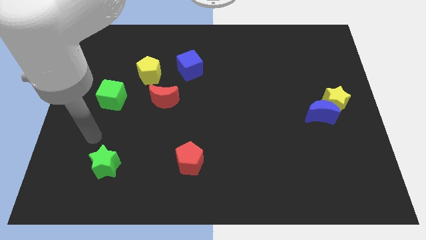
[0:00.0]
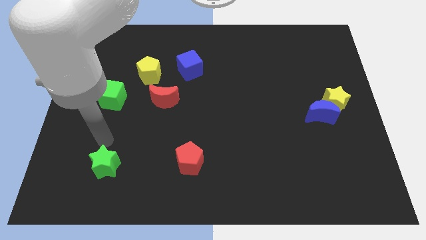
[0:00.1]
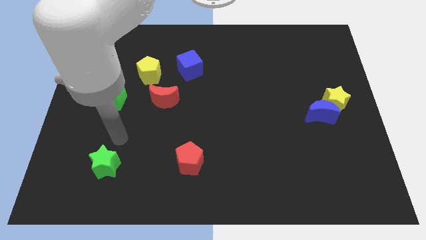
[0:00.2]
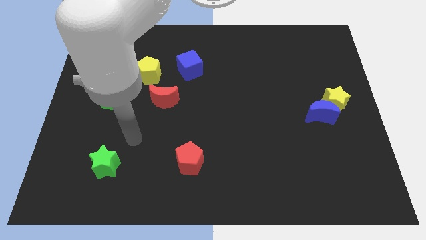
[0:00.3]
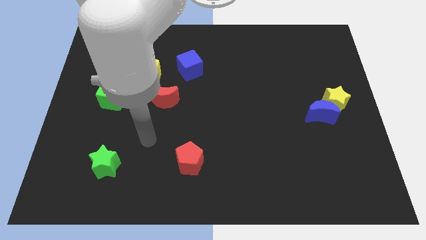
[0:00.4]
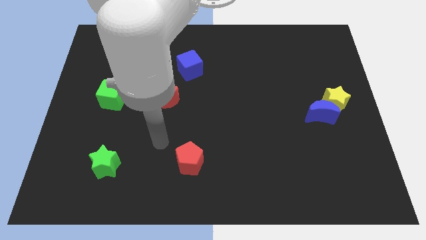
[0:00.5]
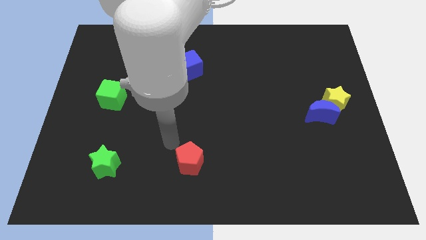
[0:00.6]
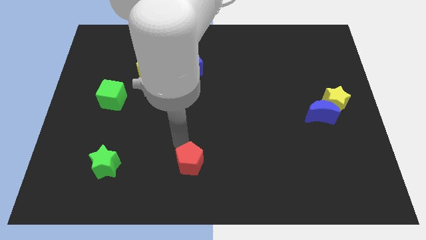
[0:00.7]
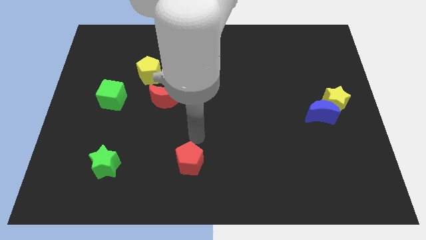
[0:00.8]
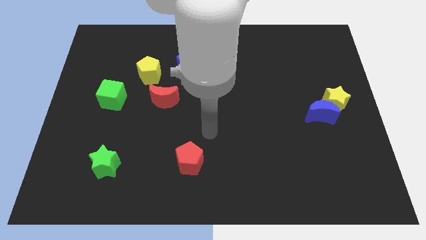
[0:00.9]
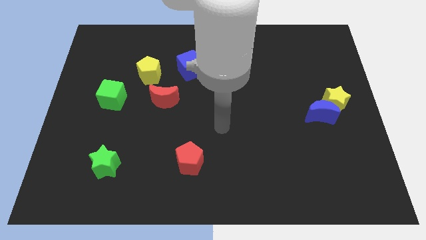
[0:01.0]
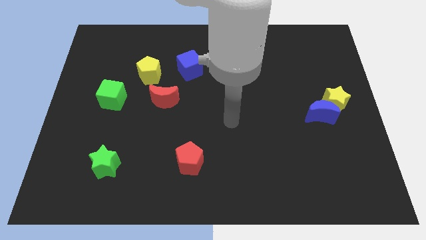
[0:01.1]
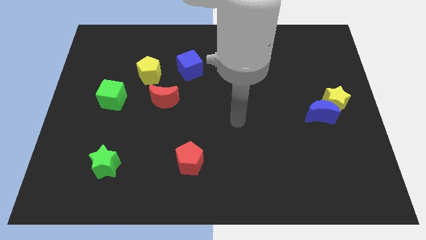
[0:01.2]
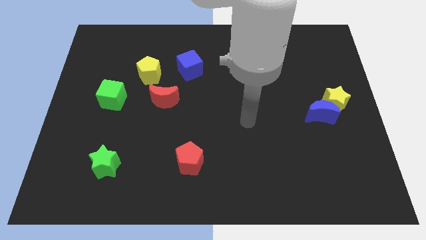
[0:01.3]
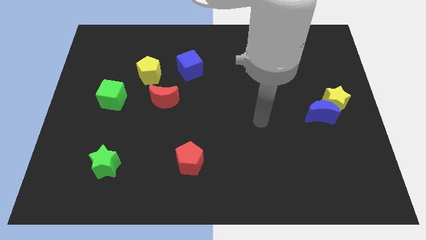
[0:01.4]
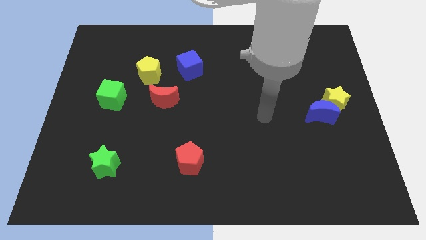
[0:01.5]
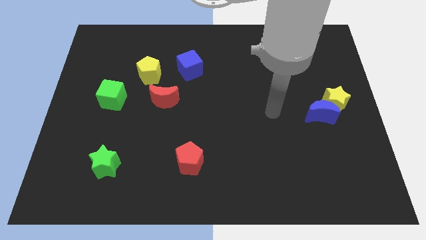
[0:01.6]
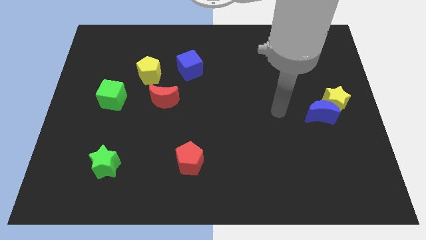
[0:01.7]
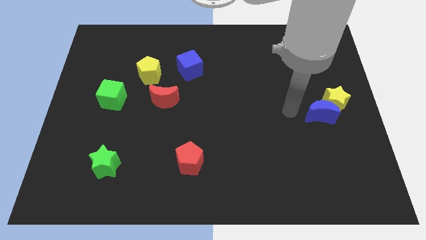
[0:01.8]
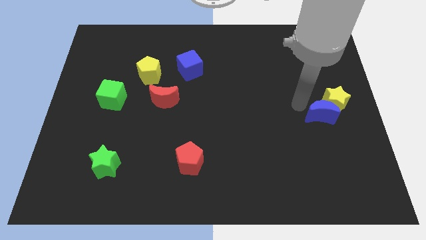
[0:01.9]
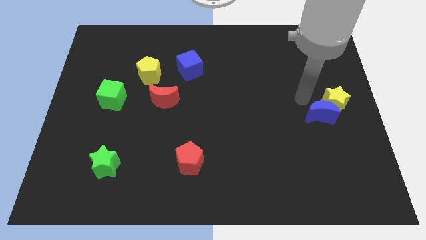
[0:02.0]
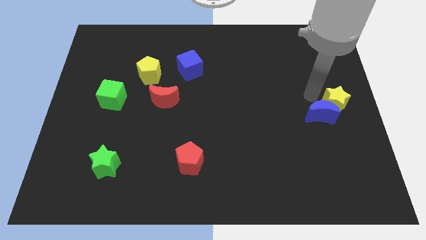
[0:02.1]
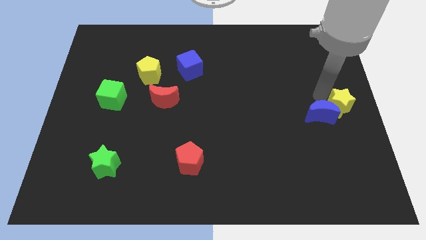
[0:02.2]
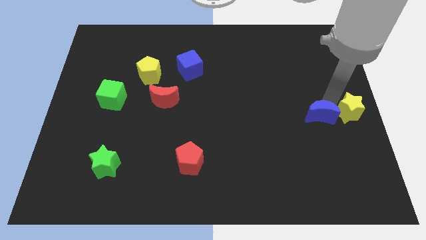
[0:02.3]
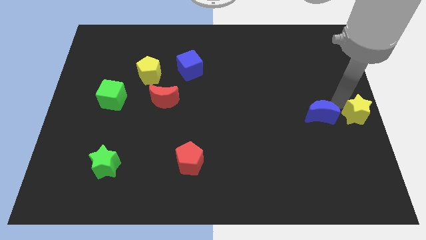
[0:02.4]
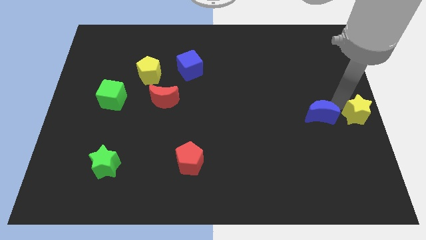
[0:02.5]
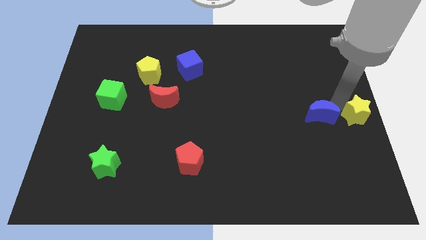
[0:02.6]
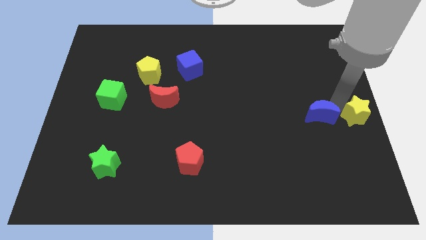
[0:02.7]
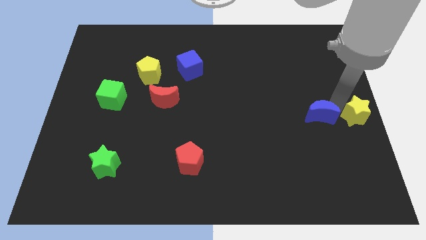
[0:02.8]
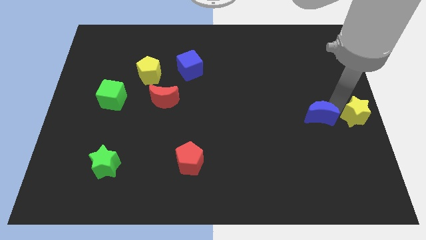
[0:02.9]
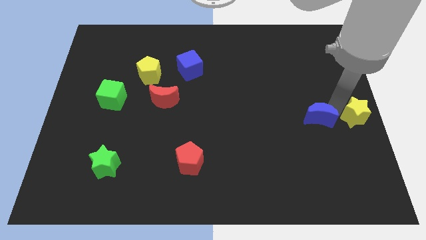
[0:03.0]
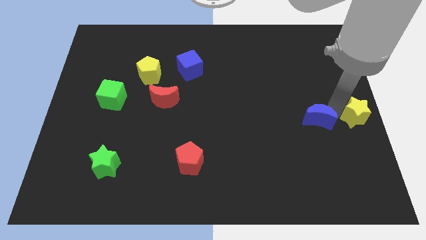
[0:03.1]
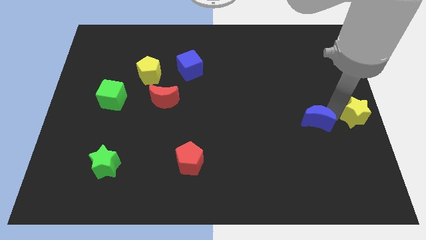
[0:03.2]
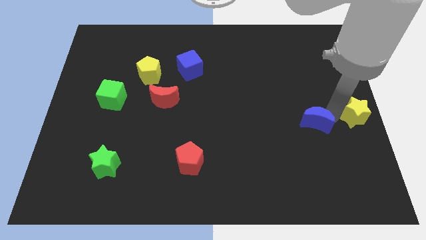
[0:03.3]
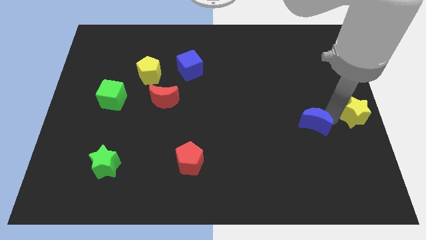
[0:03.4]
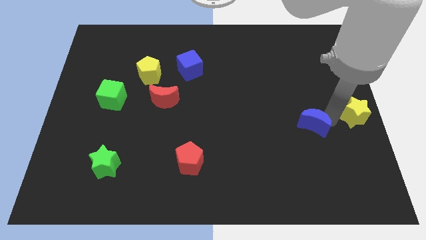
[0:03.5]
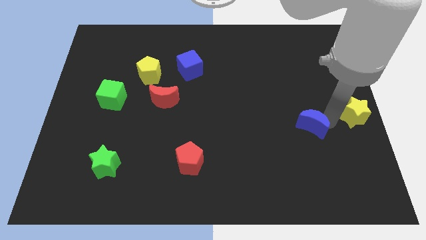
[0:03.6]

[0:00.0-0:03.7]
move the blue moon away from the yellow star

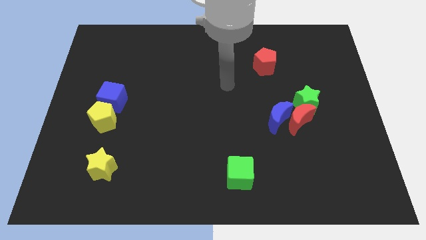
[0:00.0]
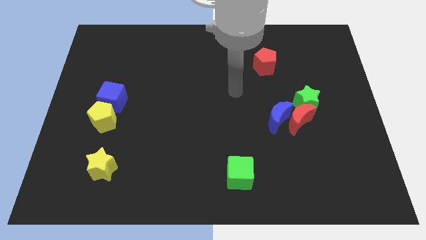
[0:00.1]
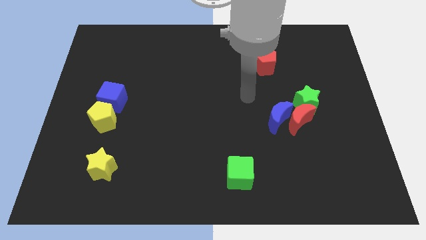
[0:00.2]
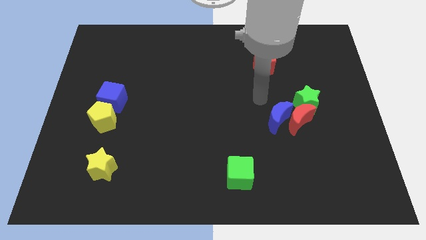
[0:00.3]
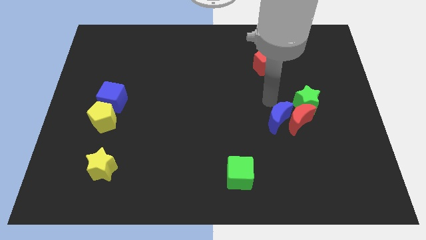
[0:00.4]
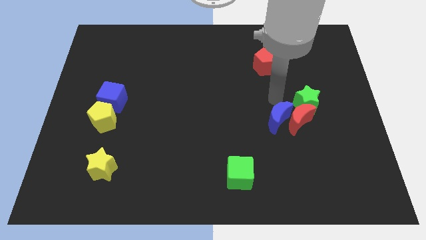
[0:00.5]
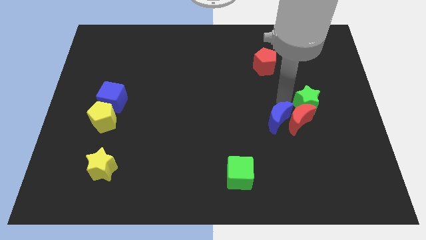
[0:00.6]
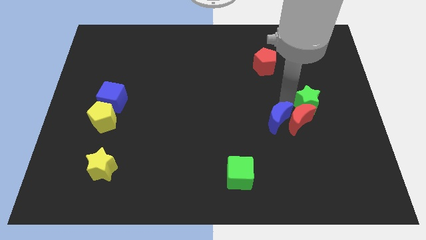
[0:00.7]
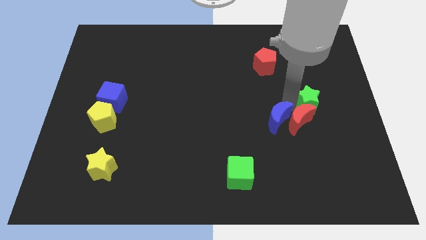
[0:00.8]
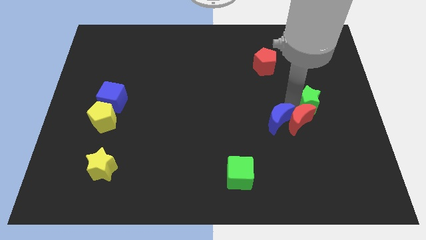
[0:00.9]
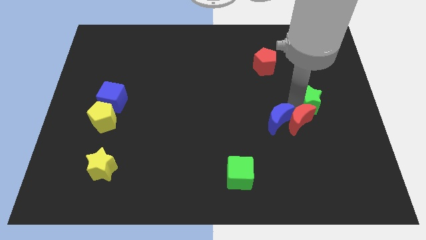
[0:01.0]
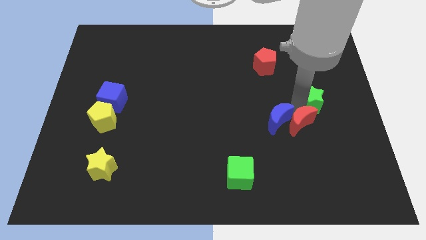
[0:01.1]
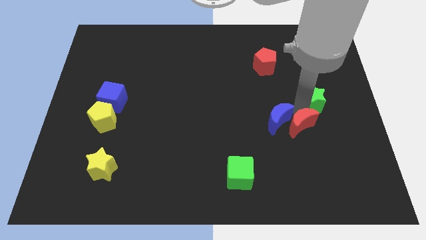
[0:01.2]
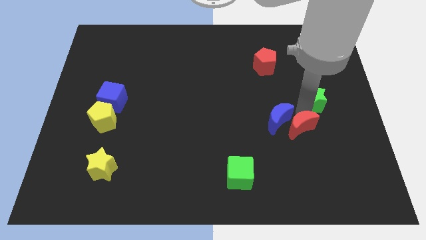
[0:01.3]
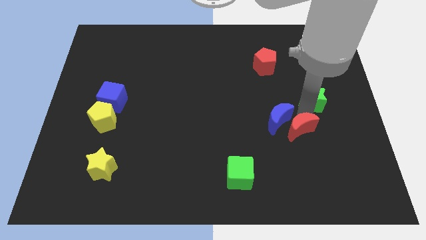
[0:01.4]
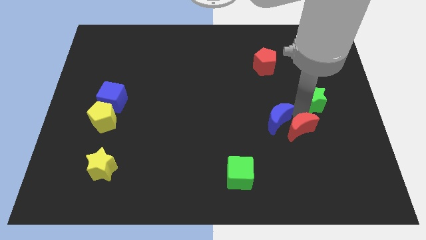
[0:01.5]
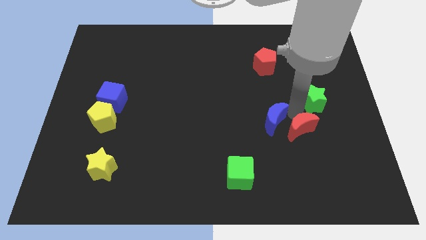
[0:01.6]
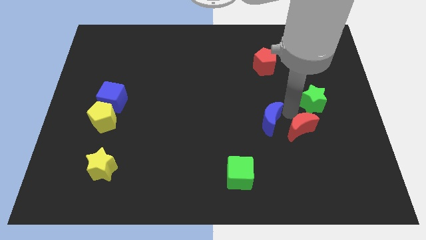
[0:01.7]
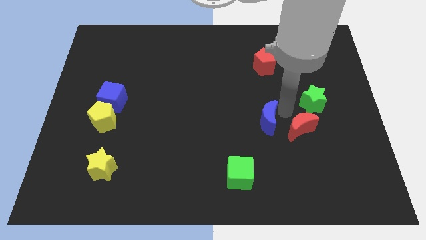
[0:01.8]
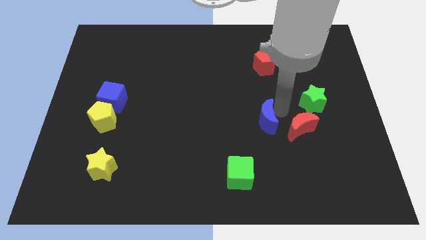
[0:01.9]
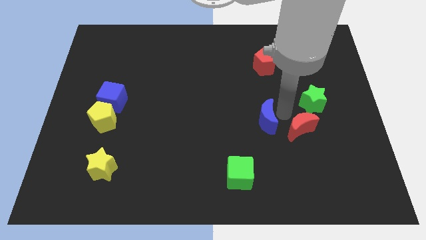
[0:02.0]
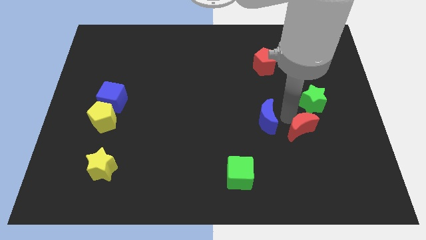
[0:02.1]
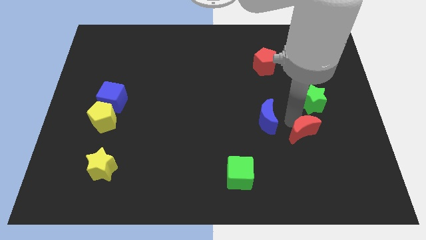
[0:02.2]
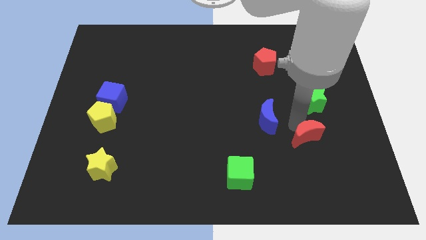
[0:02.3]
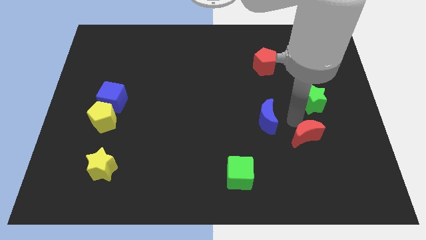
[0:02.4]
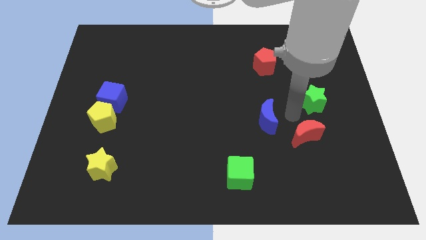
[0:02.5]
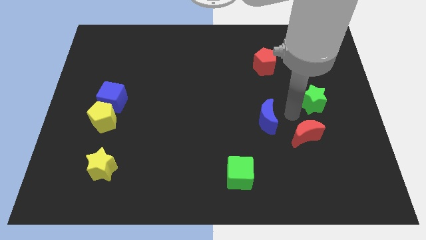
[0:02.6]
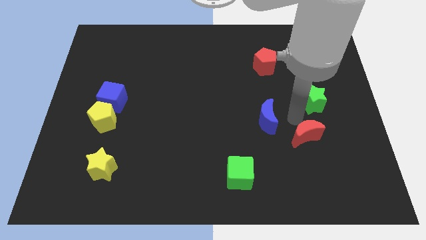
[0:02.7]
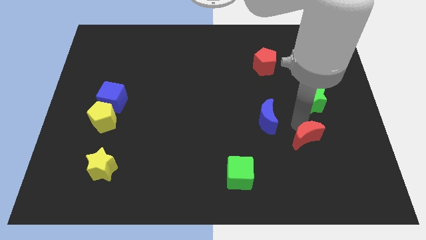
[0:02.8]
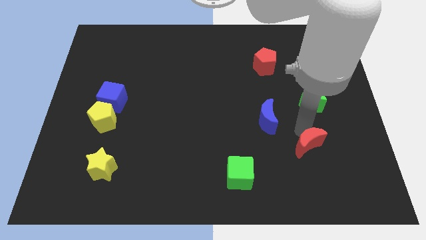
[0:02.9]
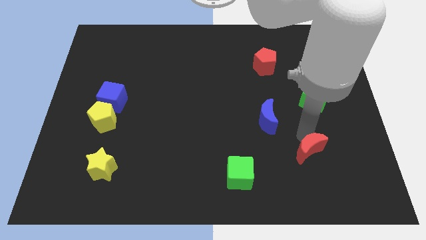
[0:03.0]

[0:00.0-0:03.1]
separate the red moon from the blue moon and green star

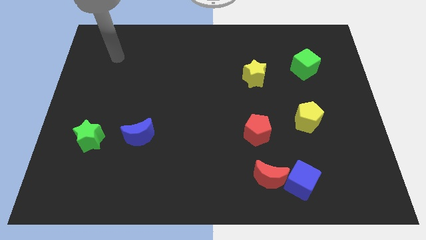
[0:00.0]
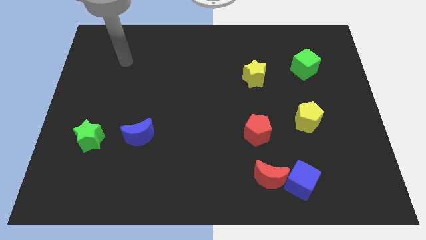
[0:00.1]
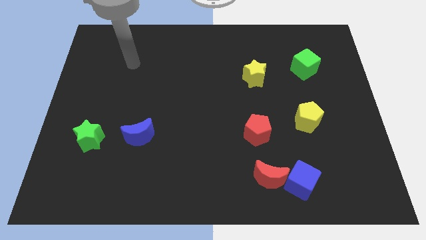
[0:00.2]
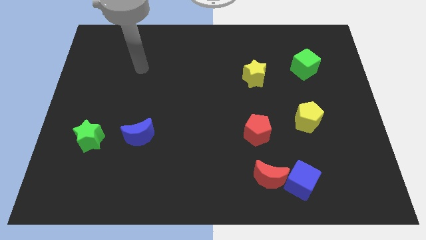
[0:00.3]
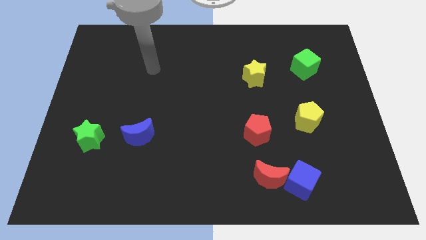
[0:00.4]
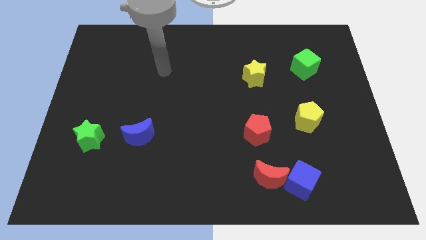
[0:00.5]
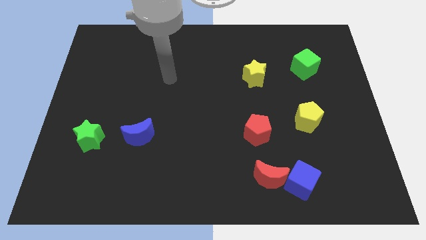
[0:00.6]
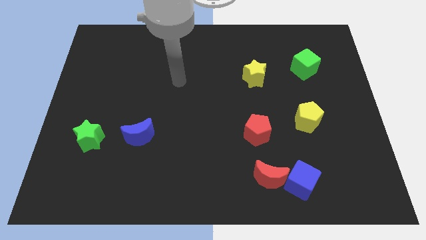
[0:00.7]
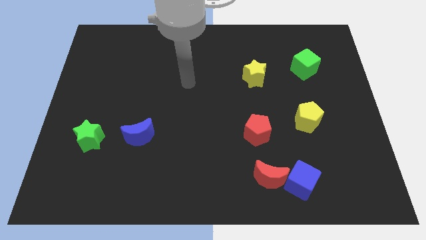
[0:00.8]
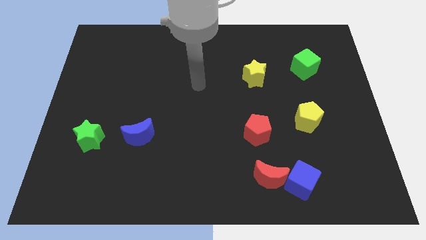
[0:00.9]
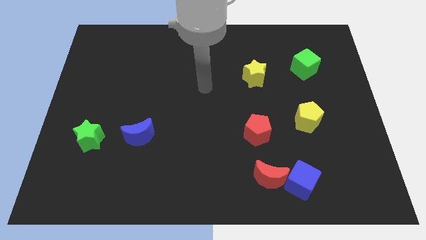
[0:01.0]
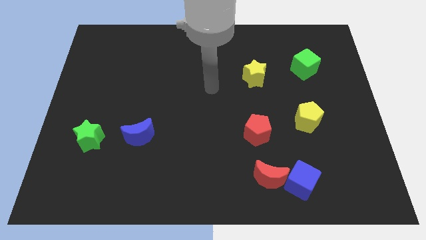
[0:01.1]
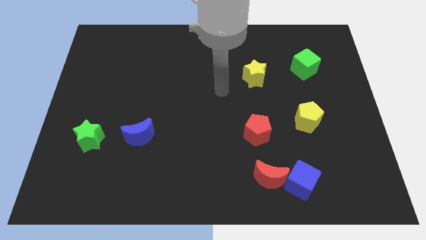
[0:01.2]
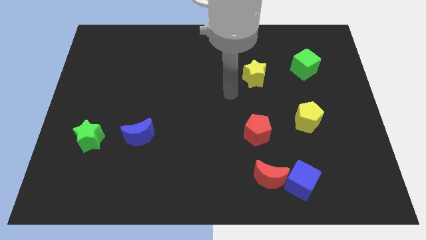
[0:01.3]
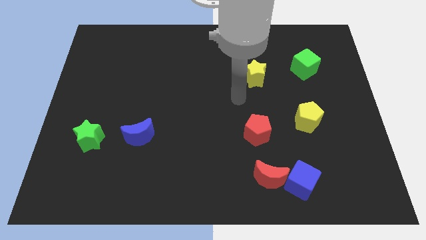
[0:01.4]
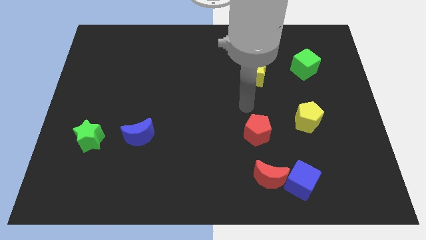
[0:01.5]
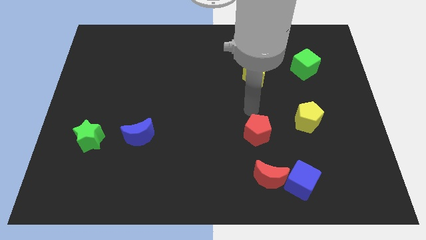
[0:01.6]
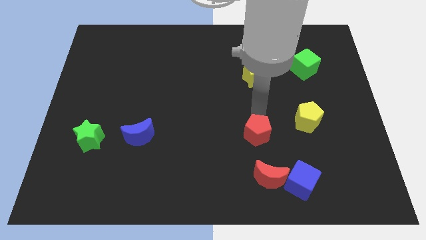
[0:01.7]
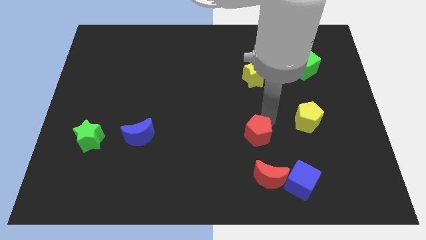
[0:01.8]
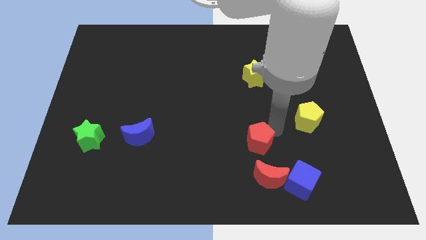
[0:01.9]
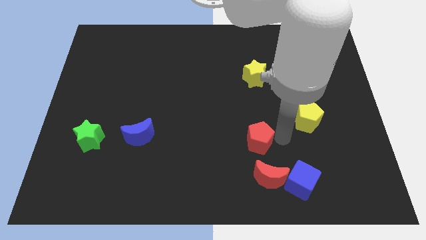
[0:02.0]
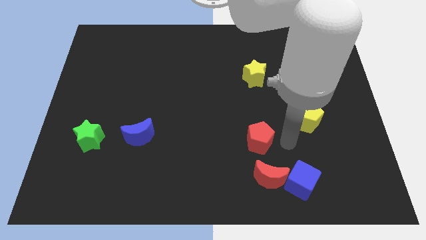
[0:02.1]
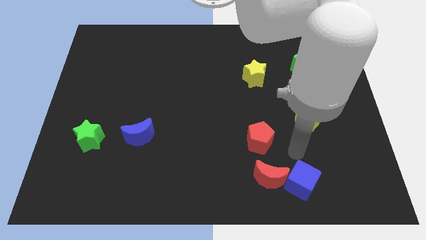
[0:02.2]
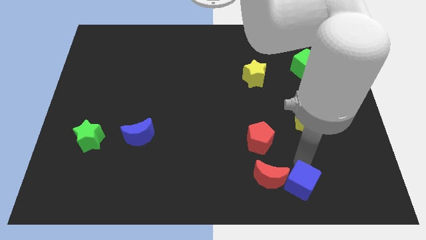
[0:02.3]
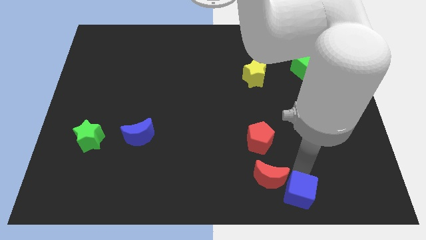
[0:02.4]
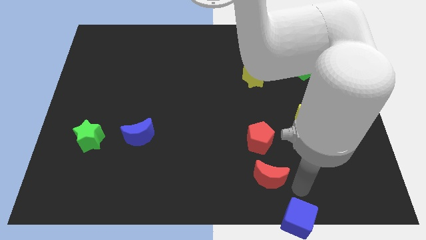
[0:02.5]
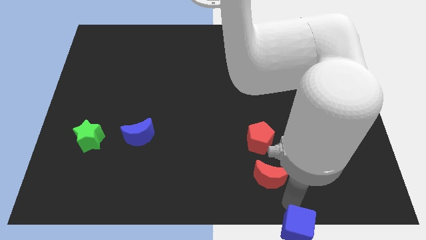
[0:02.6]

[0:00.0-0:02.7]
pull the red moon apart from the blue cube
